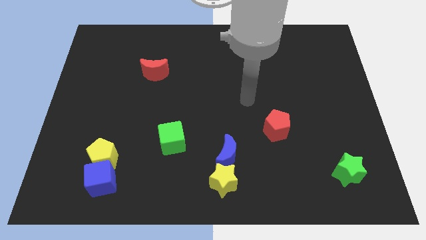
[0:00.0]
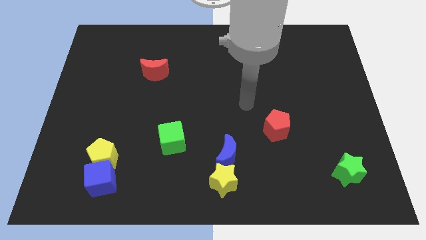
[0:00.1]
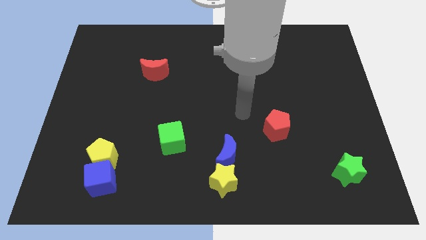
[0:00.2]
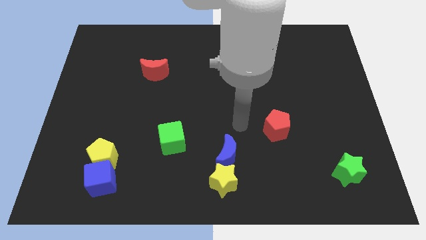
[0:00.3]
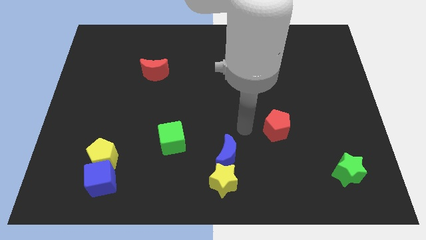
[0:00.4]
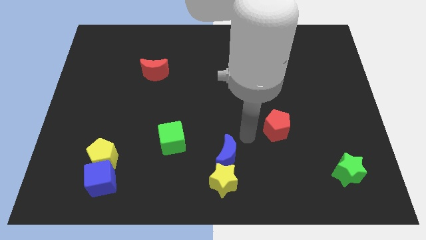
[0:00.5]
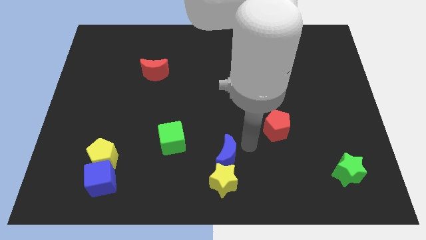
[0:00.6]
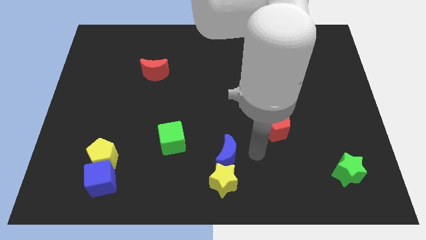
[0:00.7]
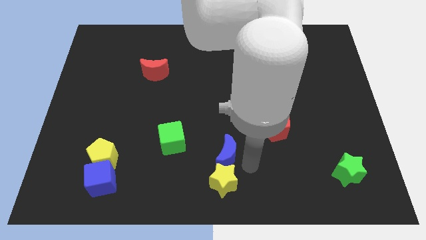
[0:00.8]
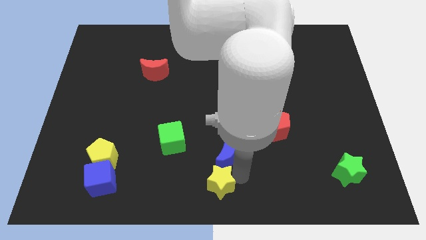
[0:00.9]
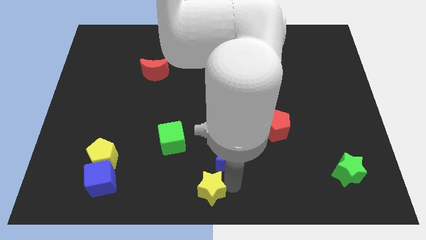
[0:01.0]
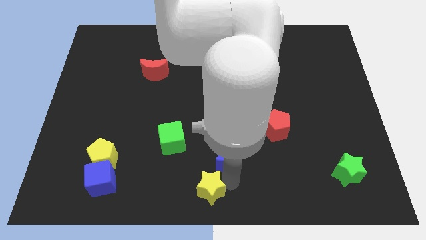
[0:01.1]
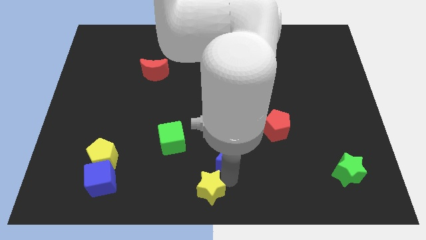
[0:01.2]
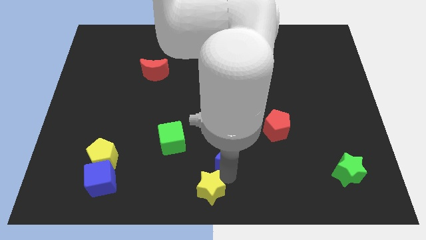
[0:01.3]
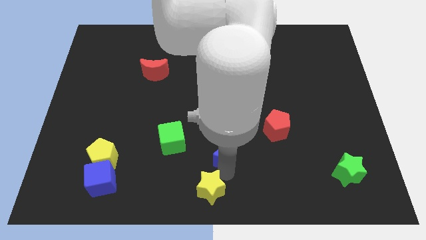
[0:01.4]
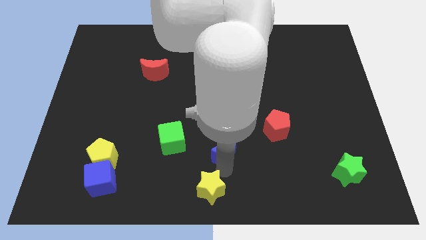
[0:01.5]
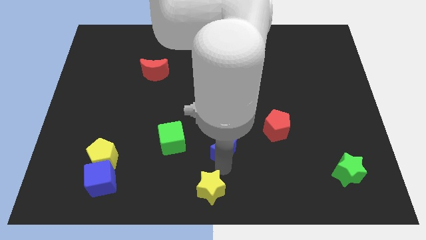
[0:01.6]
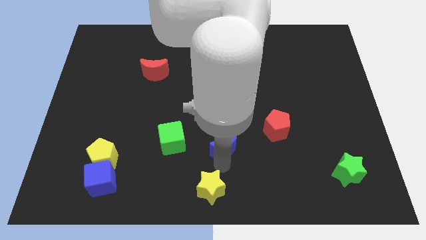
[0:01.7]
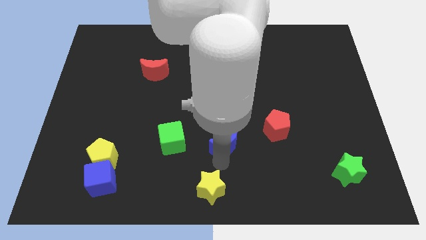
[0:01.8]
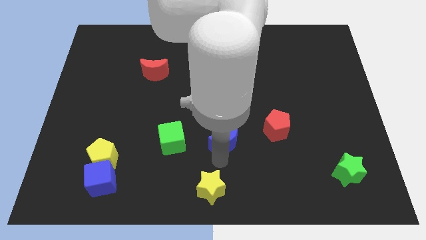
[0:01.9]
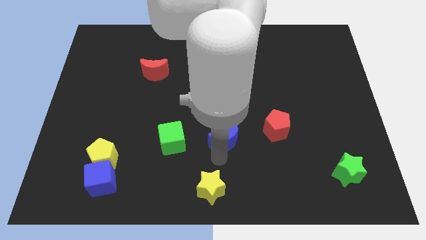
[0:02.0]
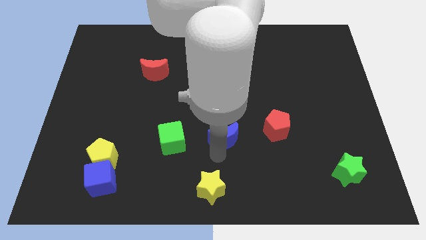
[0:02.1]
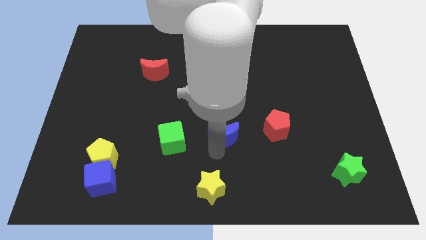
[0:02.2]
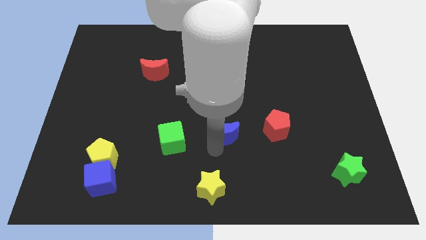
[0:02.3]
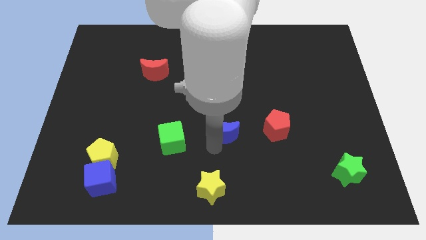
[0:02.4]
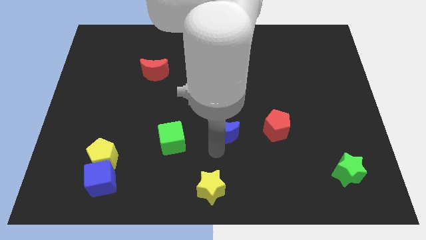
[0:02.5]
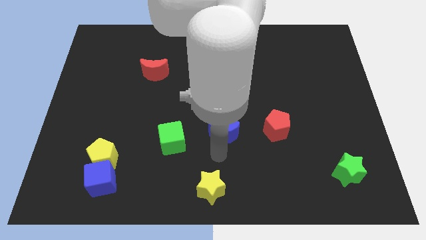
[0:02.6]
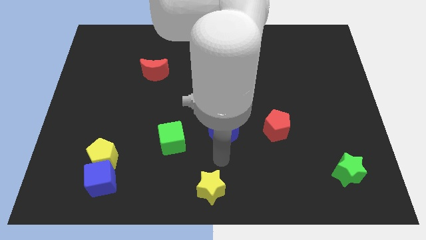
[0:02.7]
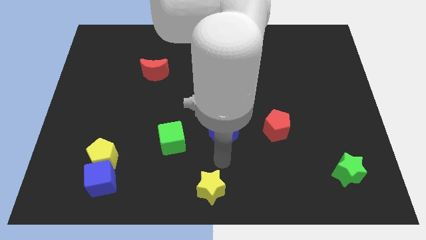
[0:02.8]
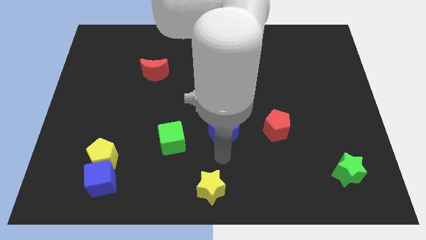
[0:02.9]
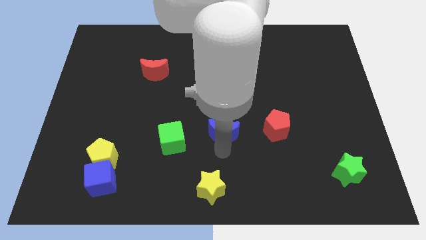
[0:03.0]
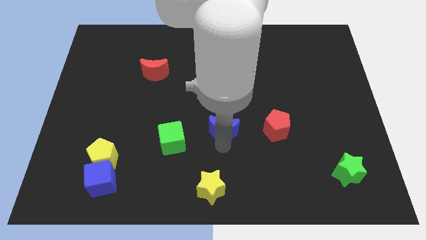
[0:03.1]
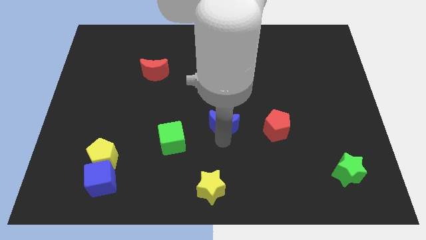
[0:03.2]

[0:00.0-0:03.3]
push the blue moon upwards a bit

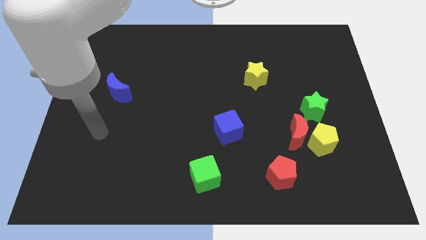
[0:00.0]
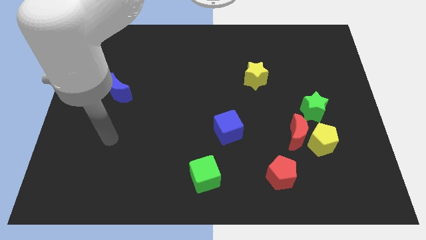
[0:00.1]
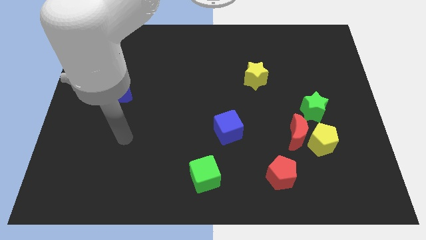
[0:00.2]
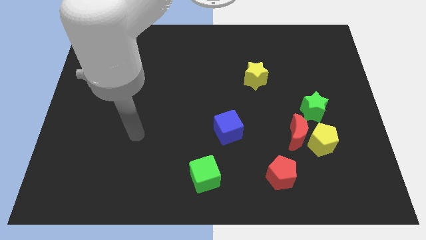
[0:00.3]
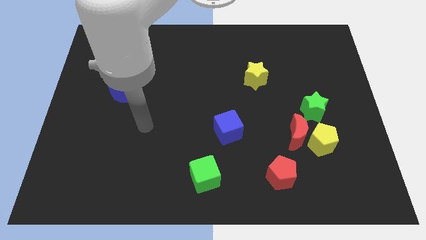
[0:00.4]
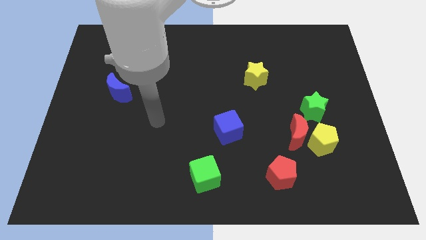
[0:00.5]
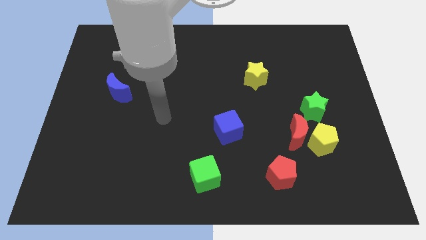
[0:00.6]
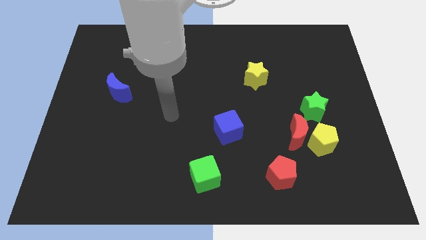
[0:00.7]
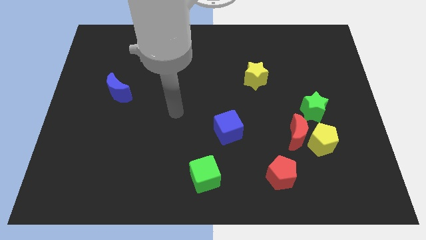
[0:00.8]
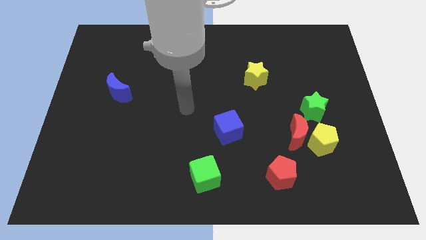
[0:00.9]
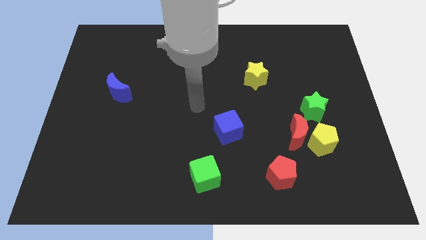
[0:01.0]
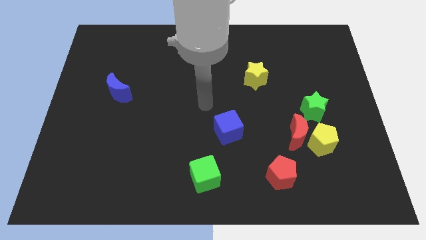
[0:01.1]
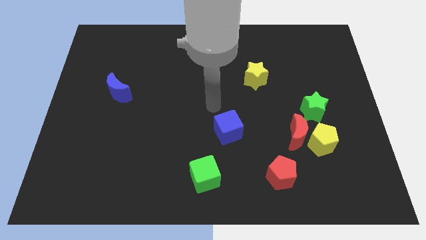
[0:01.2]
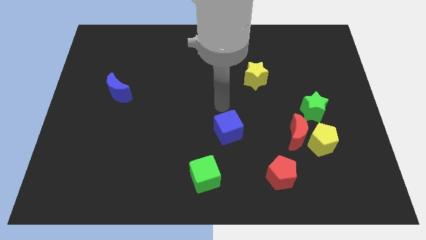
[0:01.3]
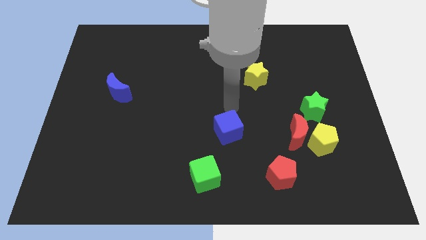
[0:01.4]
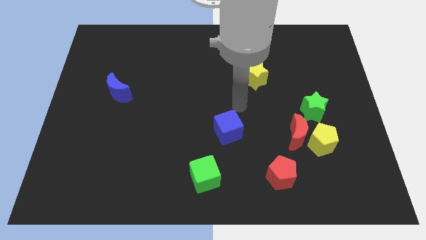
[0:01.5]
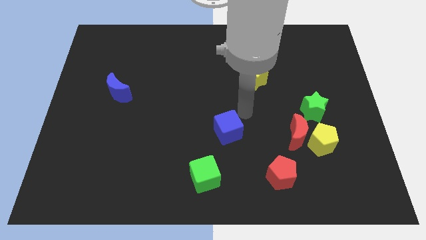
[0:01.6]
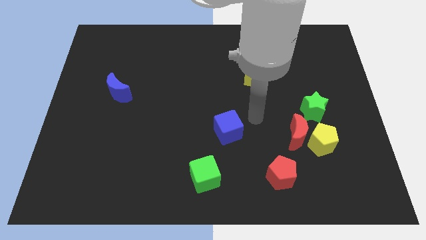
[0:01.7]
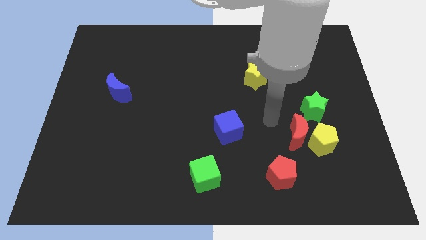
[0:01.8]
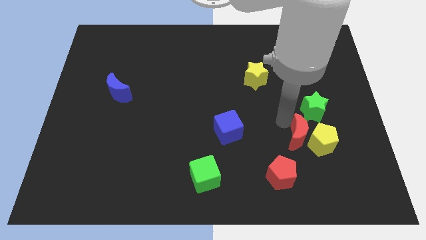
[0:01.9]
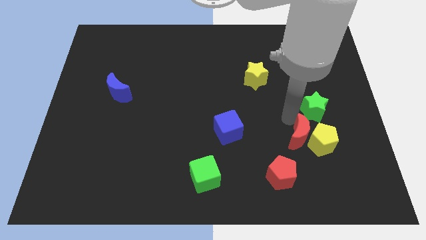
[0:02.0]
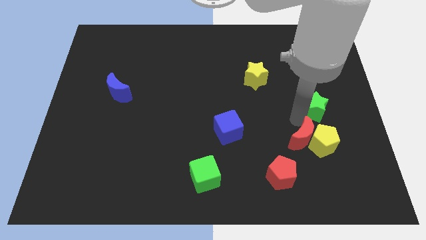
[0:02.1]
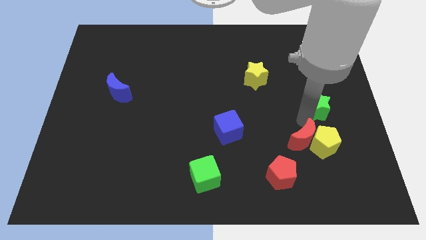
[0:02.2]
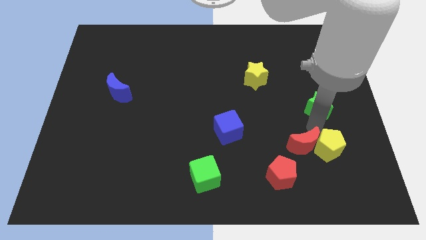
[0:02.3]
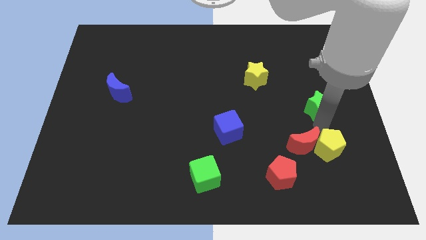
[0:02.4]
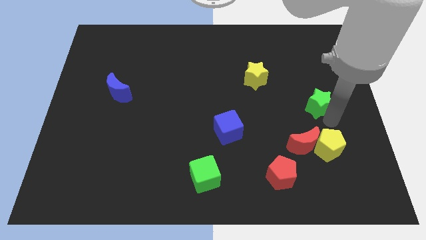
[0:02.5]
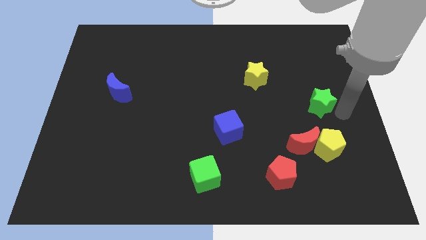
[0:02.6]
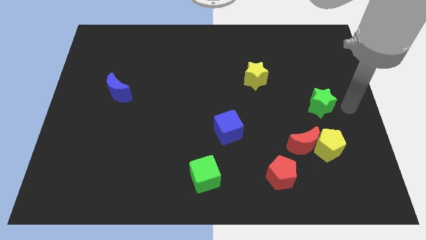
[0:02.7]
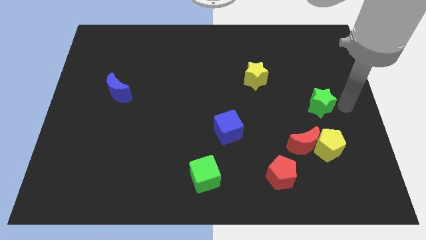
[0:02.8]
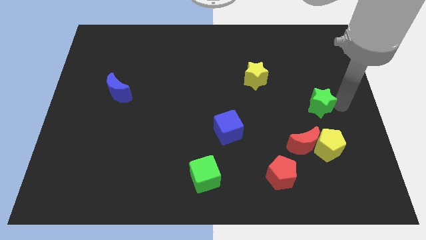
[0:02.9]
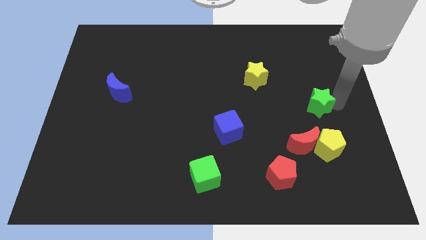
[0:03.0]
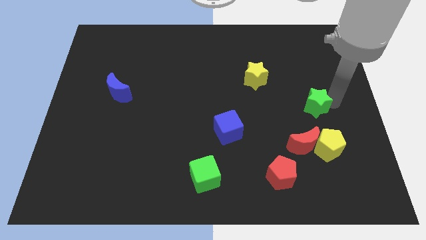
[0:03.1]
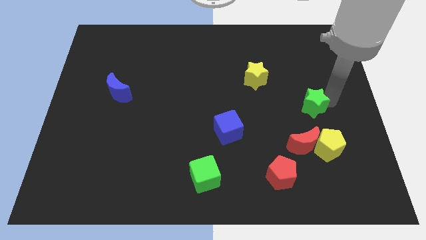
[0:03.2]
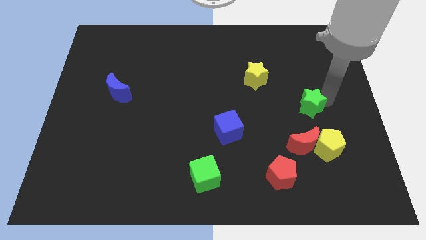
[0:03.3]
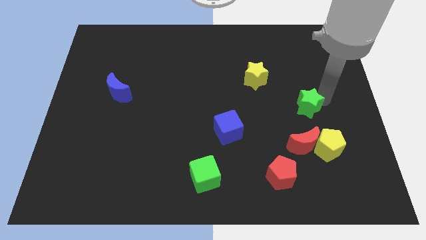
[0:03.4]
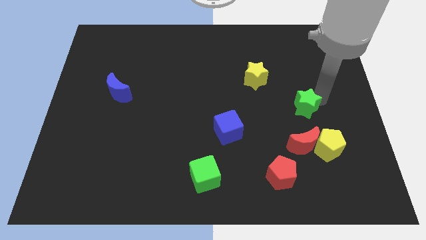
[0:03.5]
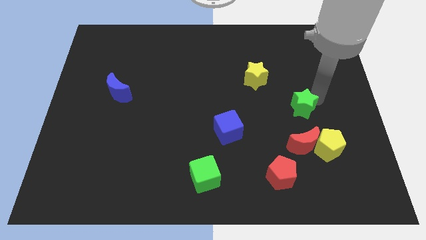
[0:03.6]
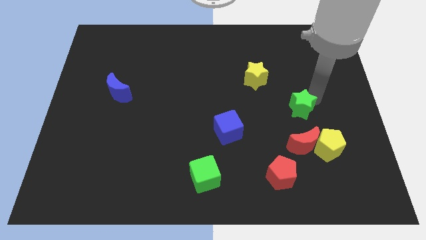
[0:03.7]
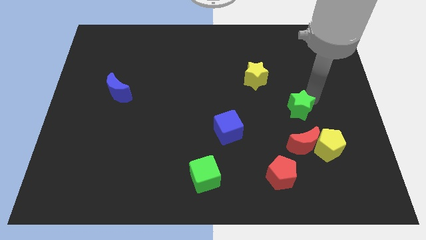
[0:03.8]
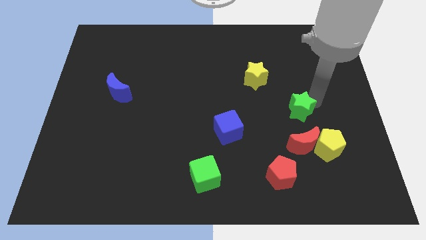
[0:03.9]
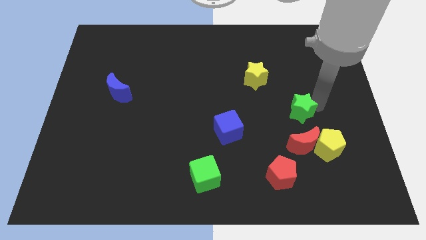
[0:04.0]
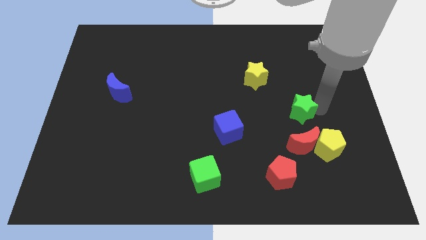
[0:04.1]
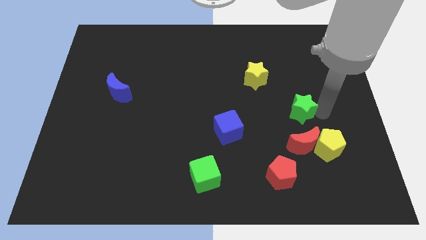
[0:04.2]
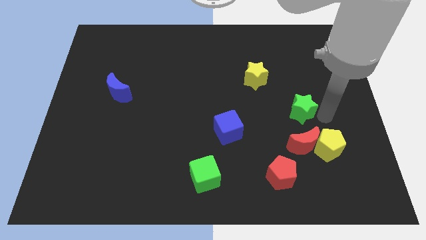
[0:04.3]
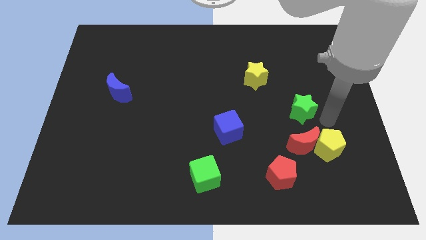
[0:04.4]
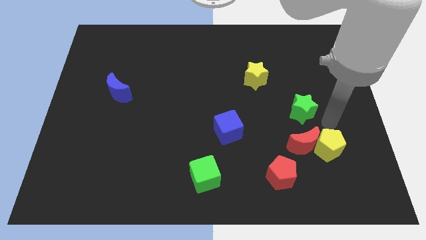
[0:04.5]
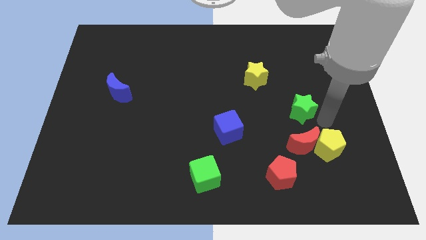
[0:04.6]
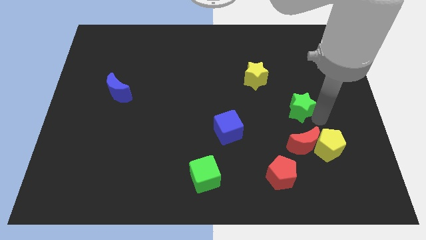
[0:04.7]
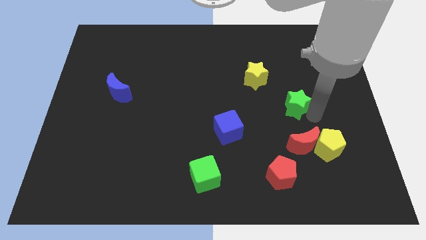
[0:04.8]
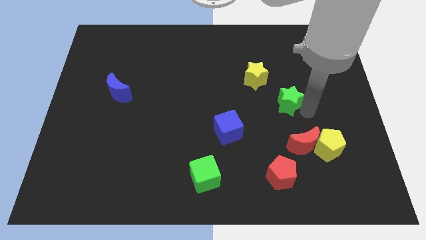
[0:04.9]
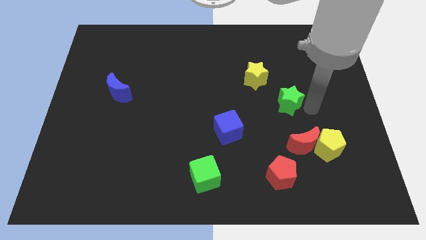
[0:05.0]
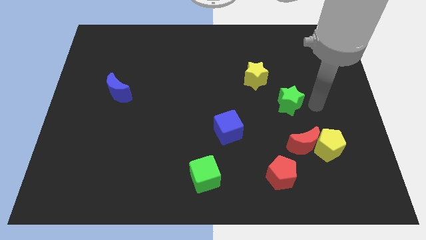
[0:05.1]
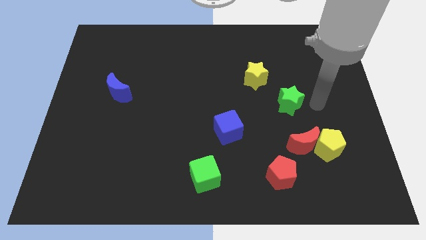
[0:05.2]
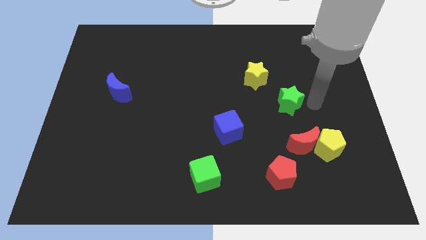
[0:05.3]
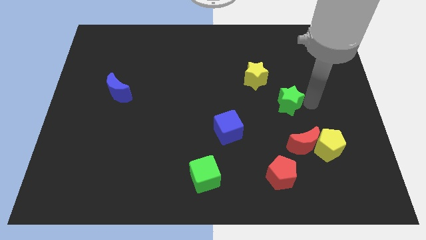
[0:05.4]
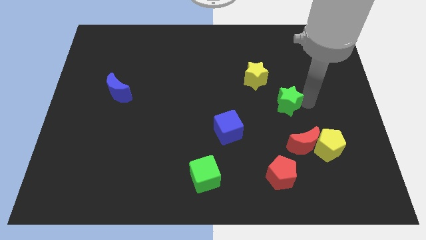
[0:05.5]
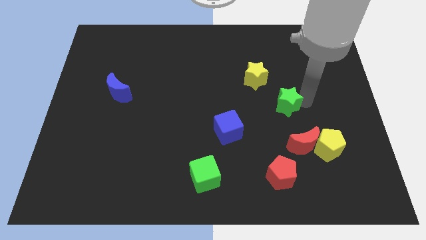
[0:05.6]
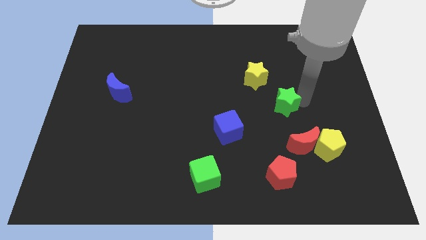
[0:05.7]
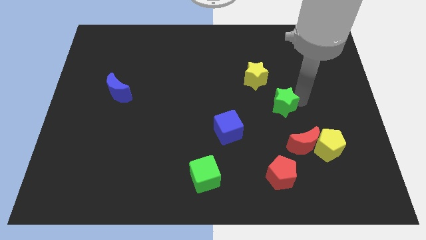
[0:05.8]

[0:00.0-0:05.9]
push the green star slightly to the left
